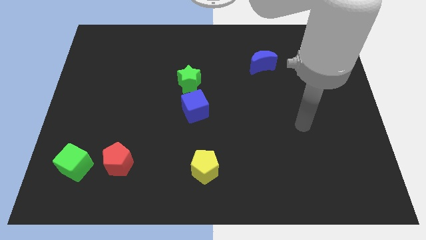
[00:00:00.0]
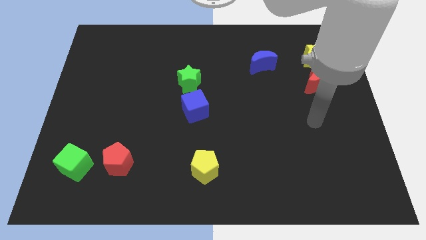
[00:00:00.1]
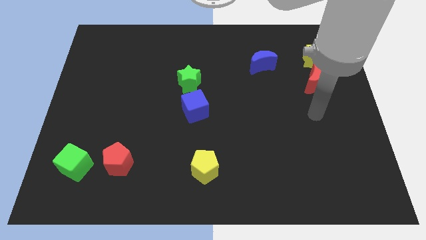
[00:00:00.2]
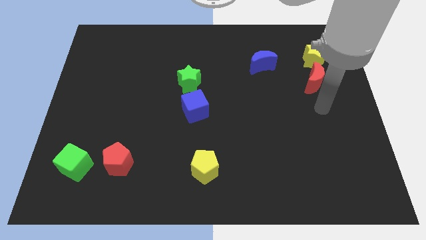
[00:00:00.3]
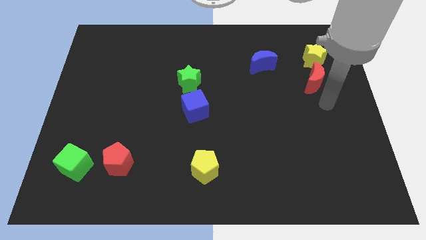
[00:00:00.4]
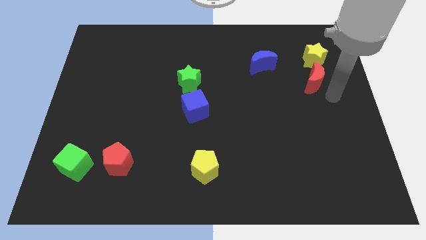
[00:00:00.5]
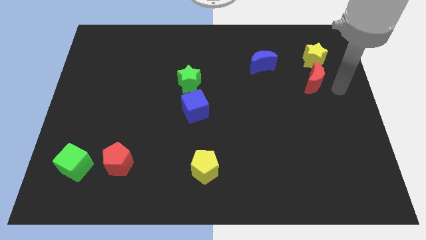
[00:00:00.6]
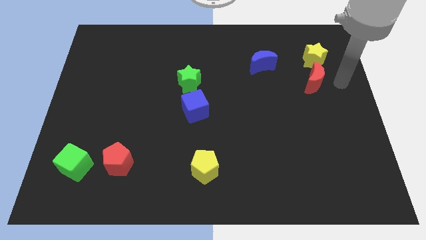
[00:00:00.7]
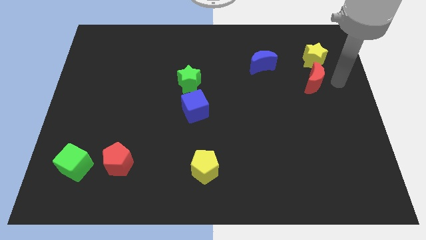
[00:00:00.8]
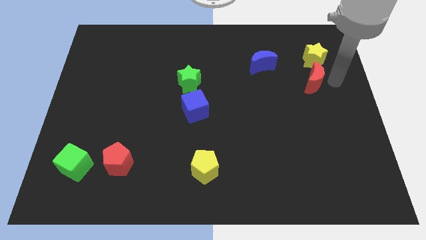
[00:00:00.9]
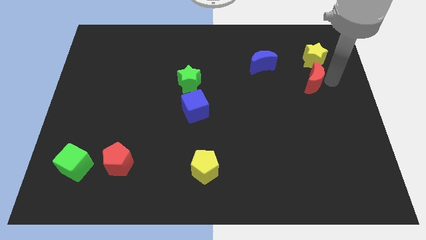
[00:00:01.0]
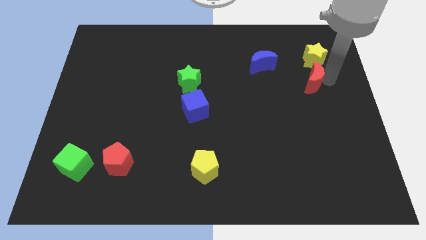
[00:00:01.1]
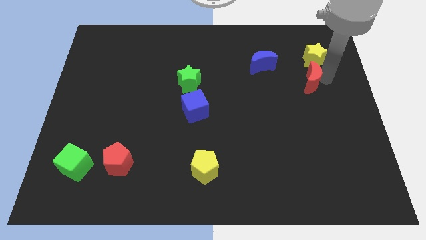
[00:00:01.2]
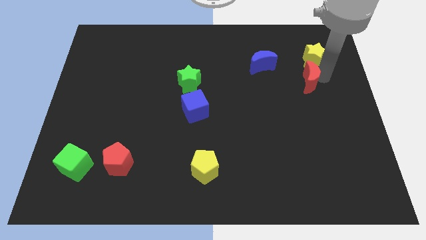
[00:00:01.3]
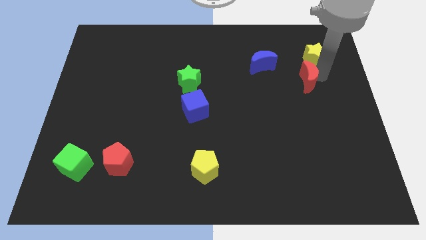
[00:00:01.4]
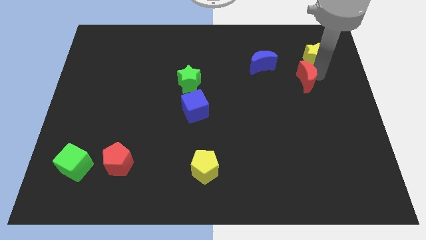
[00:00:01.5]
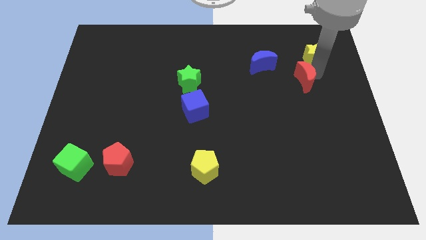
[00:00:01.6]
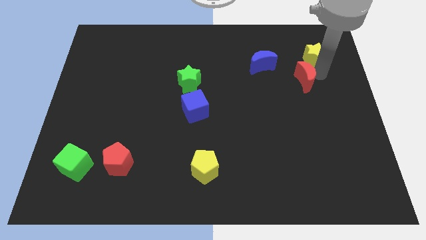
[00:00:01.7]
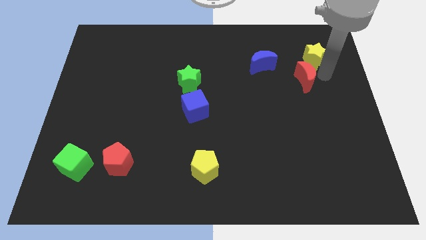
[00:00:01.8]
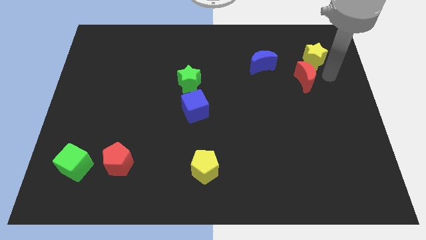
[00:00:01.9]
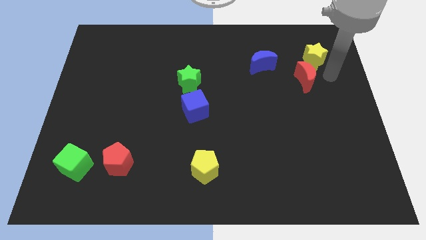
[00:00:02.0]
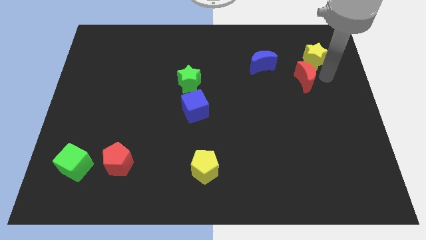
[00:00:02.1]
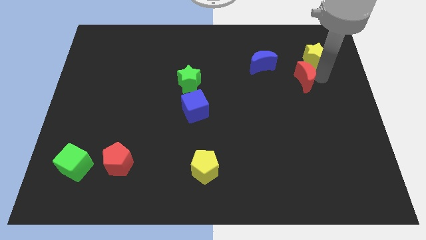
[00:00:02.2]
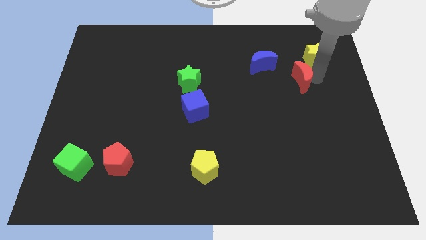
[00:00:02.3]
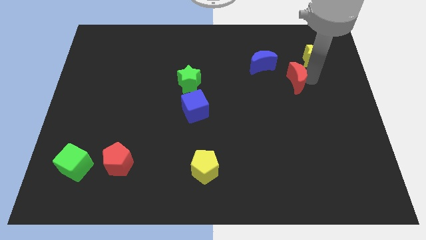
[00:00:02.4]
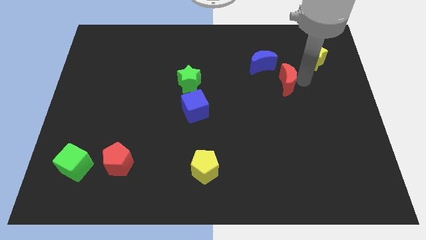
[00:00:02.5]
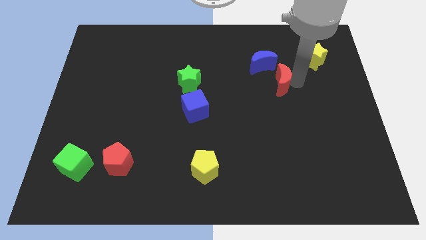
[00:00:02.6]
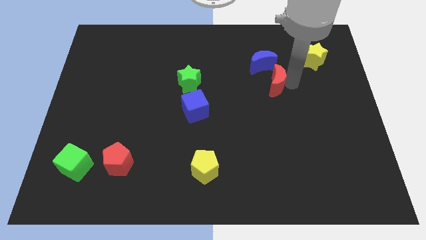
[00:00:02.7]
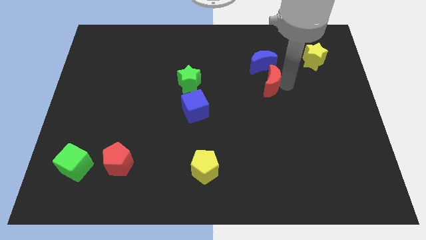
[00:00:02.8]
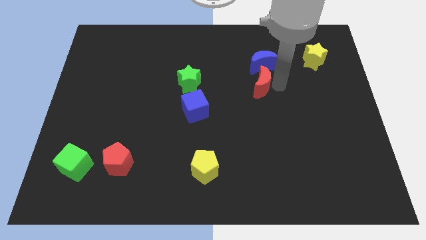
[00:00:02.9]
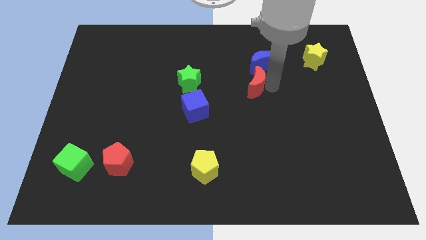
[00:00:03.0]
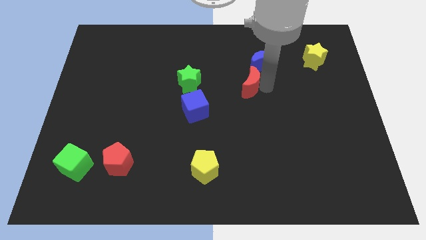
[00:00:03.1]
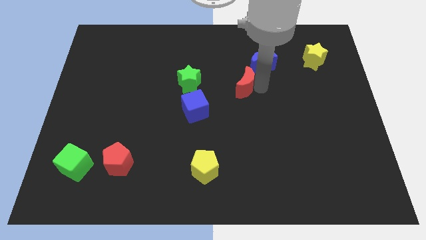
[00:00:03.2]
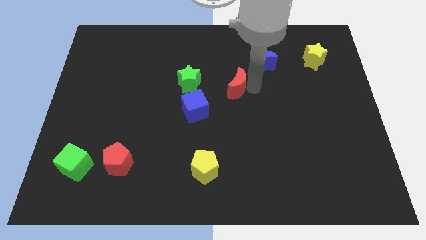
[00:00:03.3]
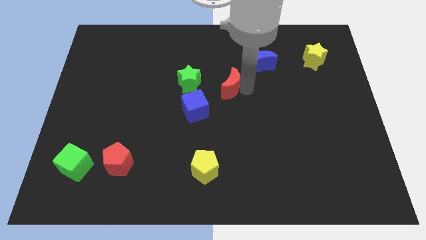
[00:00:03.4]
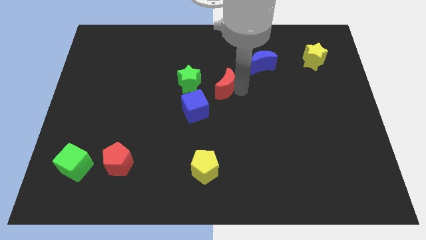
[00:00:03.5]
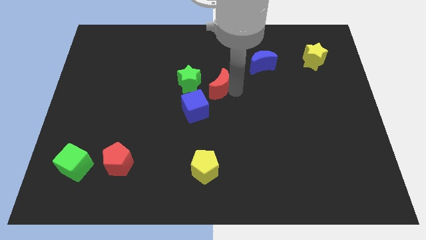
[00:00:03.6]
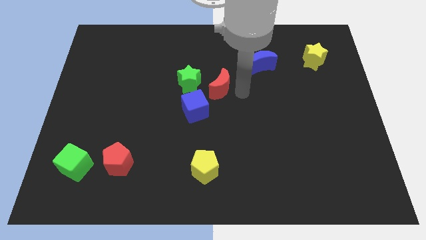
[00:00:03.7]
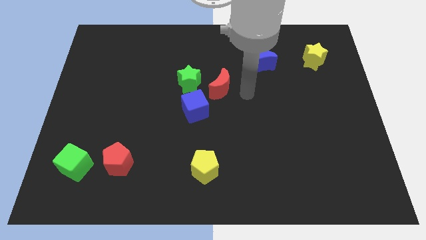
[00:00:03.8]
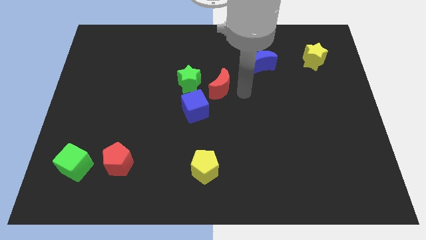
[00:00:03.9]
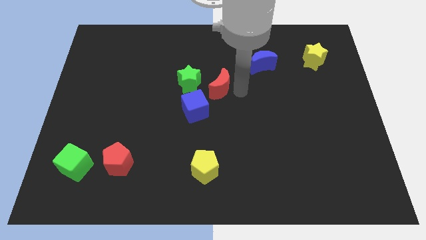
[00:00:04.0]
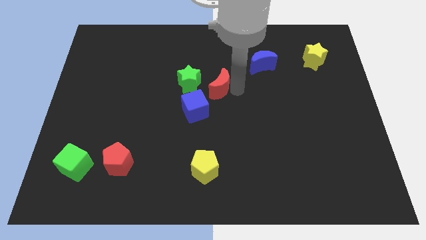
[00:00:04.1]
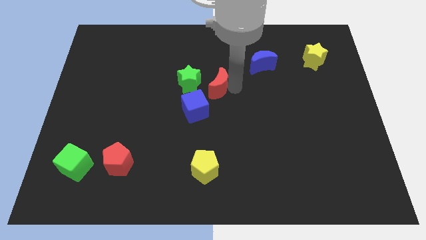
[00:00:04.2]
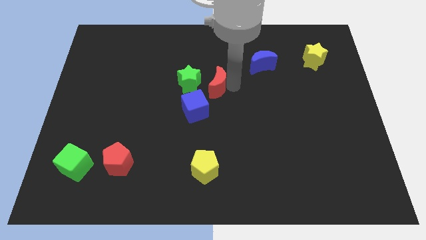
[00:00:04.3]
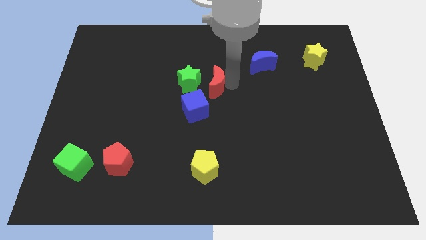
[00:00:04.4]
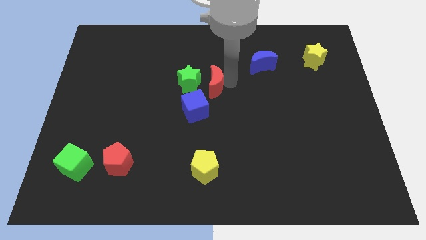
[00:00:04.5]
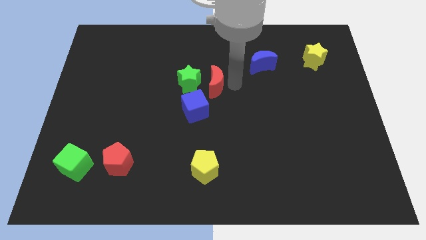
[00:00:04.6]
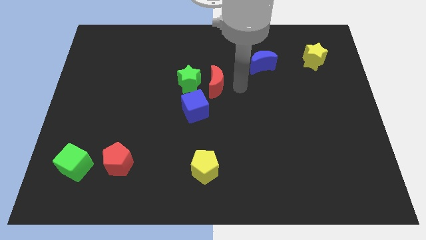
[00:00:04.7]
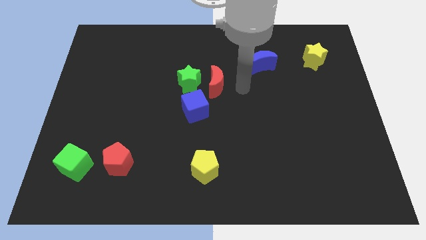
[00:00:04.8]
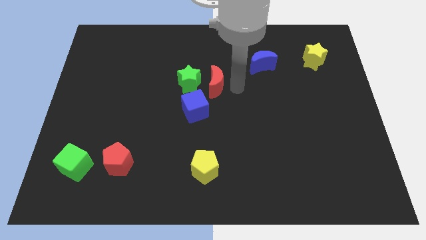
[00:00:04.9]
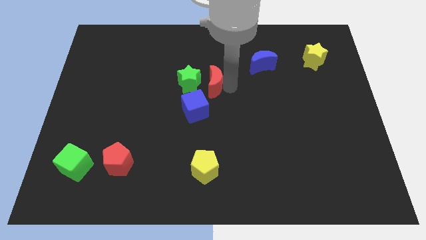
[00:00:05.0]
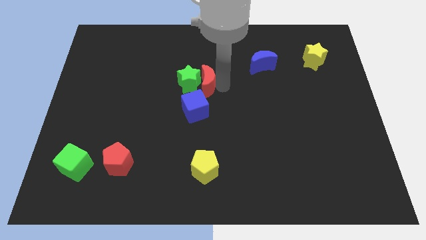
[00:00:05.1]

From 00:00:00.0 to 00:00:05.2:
slide the red moon close to the green star

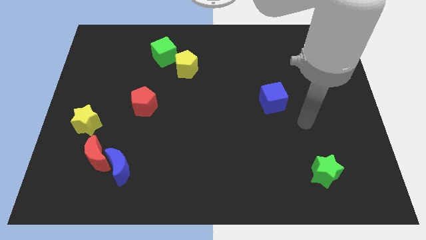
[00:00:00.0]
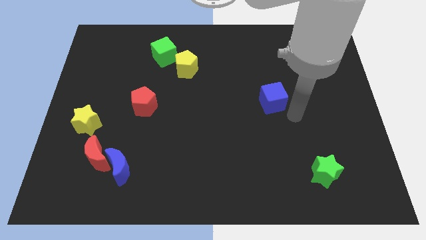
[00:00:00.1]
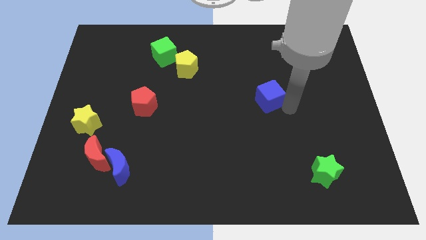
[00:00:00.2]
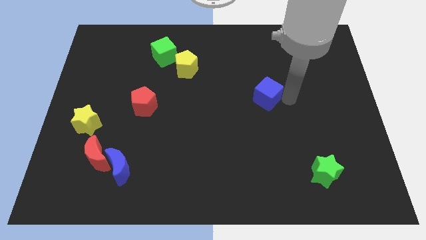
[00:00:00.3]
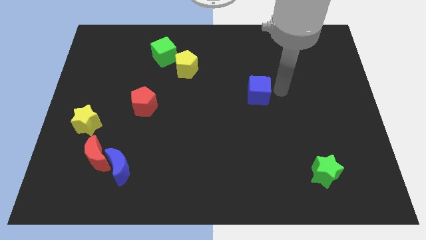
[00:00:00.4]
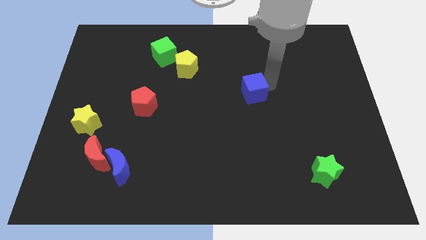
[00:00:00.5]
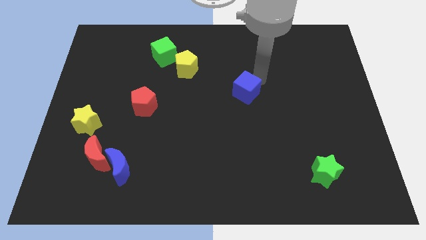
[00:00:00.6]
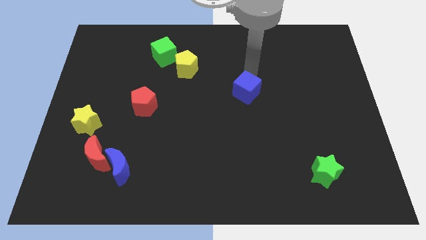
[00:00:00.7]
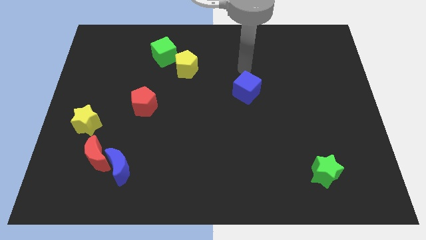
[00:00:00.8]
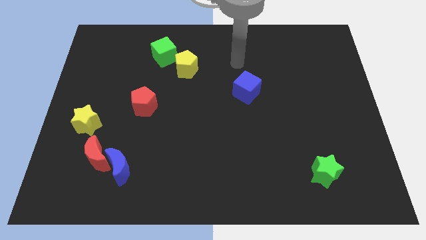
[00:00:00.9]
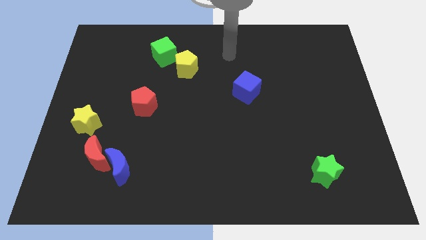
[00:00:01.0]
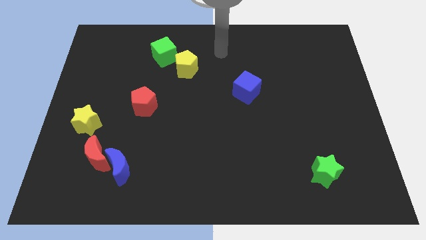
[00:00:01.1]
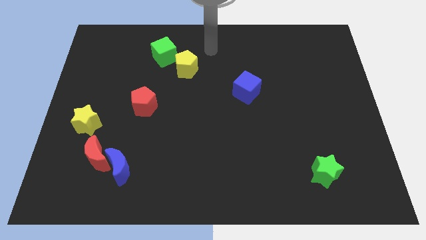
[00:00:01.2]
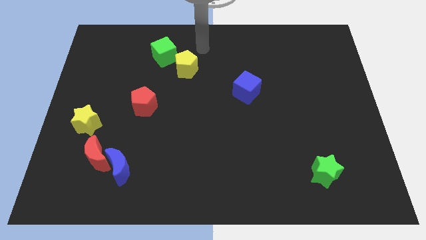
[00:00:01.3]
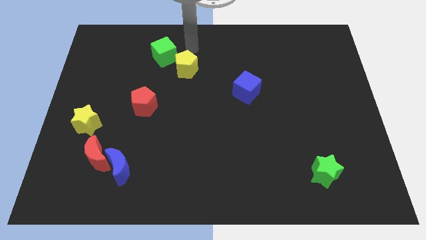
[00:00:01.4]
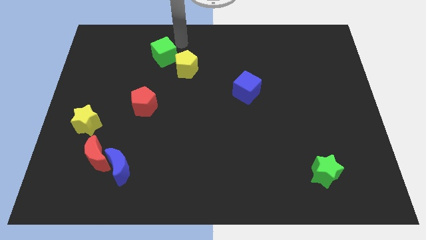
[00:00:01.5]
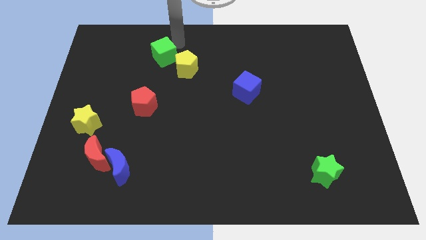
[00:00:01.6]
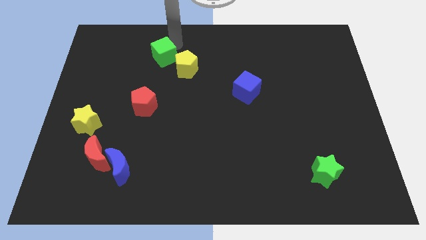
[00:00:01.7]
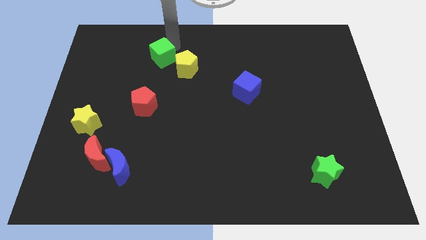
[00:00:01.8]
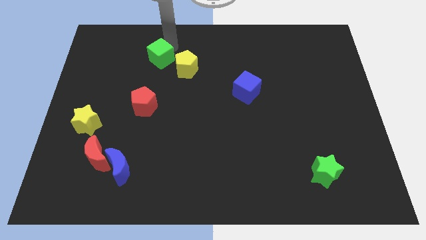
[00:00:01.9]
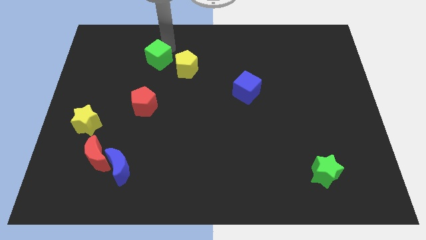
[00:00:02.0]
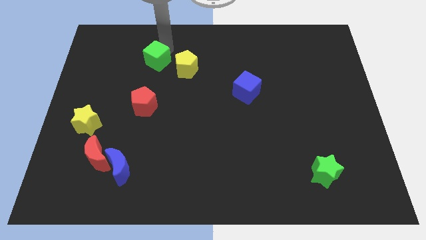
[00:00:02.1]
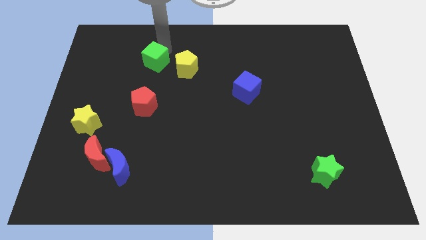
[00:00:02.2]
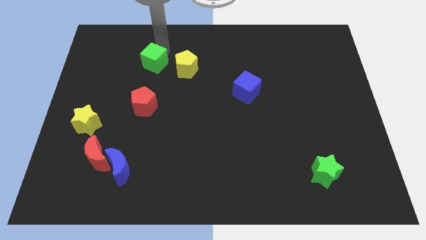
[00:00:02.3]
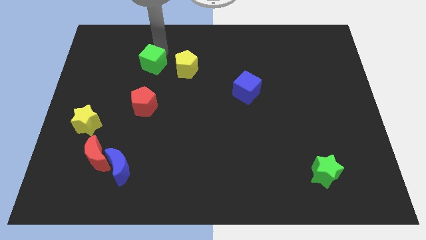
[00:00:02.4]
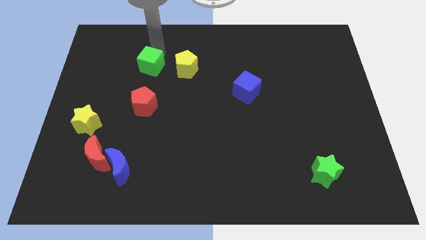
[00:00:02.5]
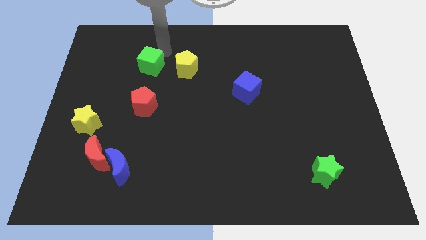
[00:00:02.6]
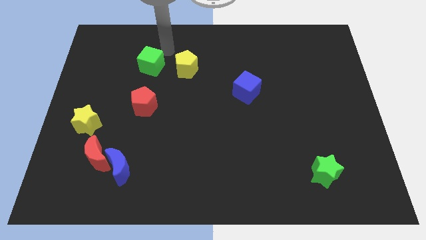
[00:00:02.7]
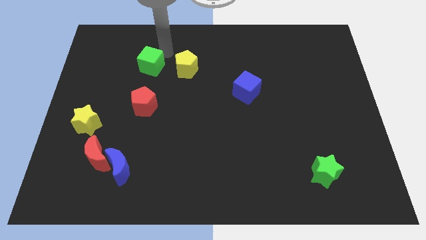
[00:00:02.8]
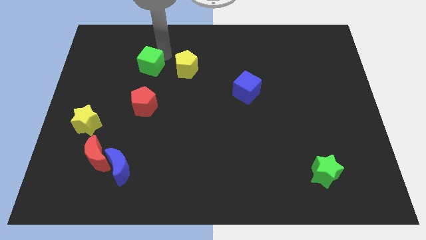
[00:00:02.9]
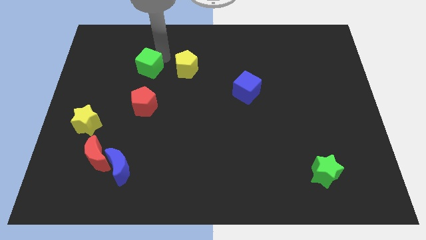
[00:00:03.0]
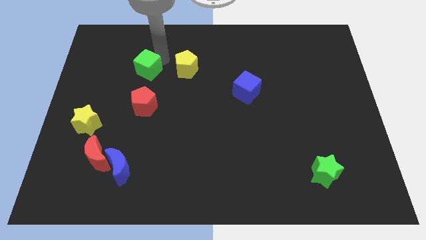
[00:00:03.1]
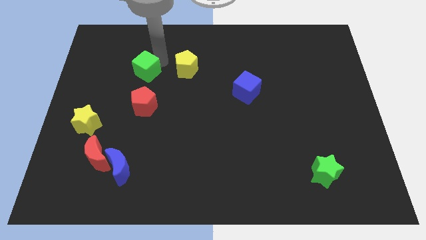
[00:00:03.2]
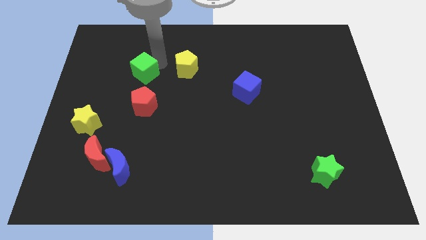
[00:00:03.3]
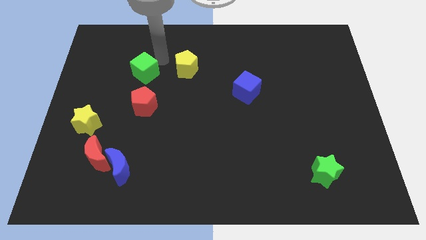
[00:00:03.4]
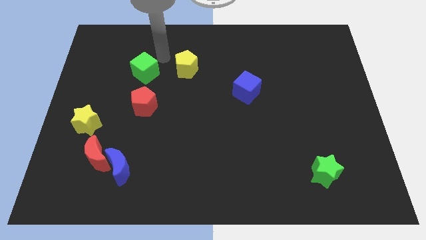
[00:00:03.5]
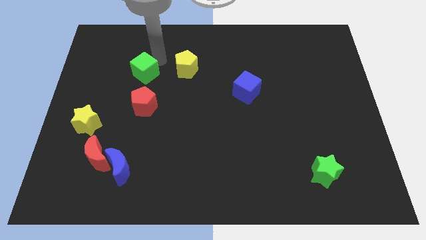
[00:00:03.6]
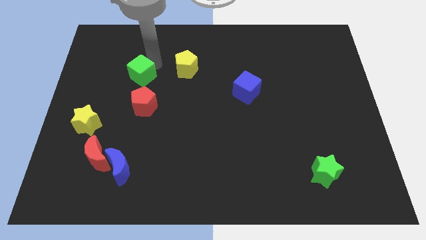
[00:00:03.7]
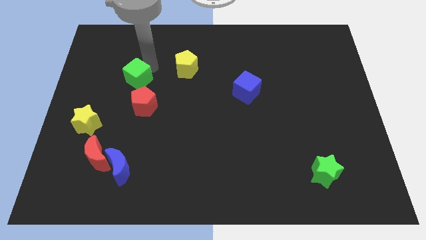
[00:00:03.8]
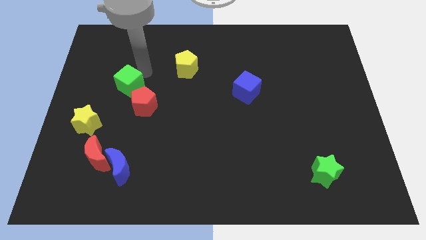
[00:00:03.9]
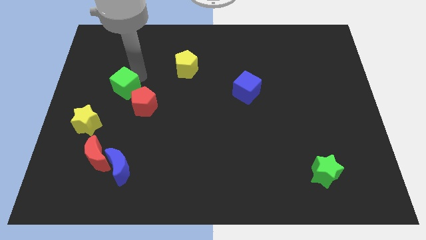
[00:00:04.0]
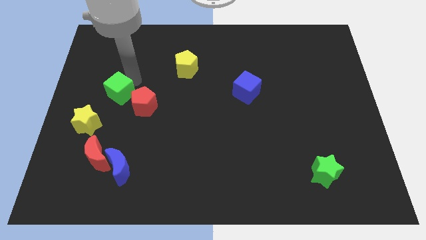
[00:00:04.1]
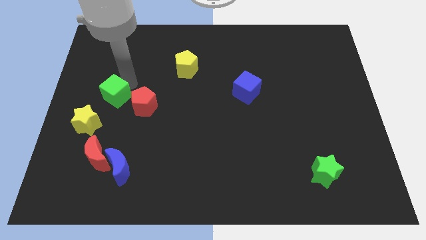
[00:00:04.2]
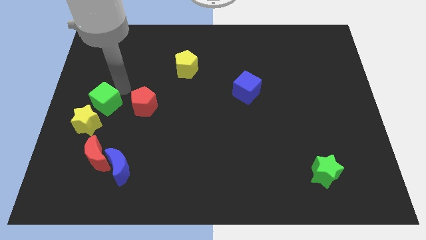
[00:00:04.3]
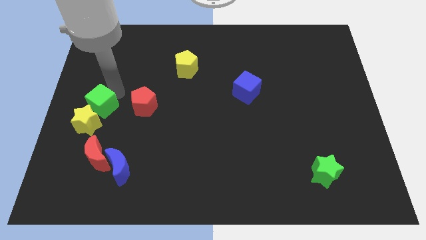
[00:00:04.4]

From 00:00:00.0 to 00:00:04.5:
push the green cube towards the yellow star
